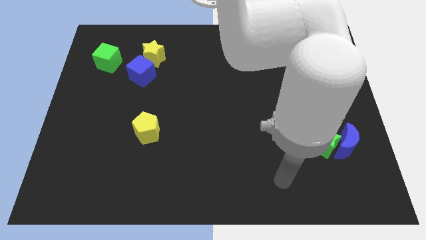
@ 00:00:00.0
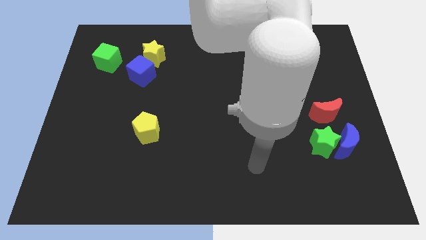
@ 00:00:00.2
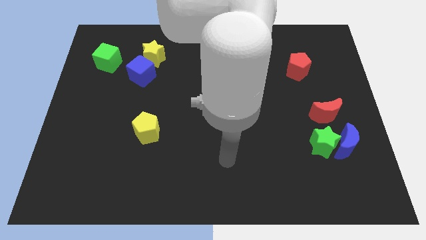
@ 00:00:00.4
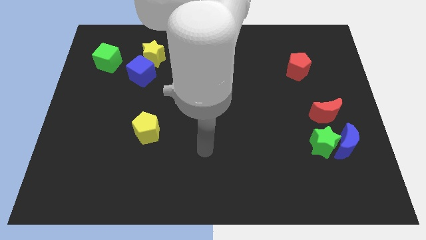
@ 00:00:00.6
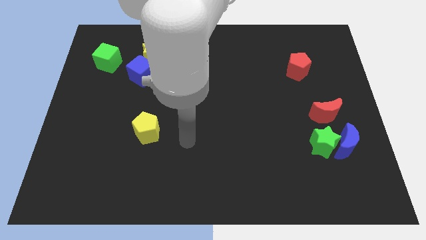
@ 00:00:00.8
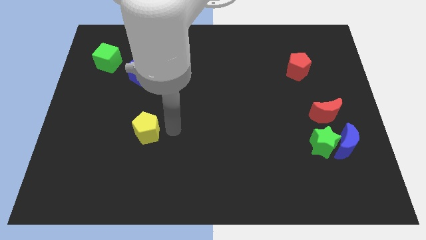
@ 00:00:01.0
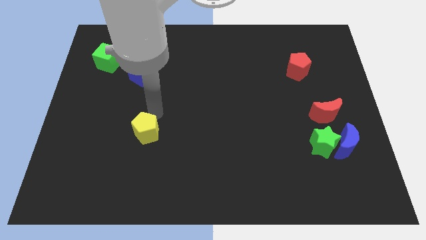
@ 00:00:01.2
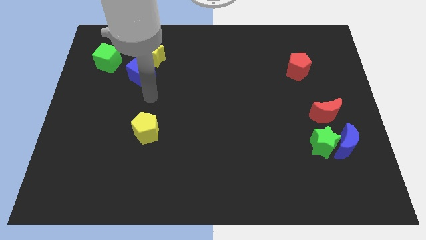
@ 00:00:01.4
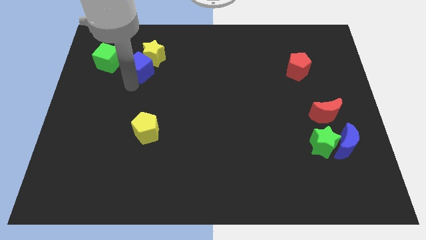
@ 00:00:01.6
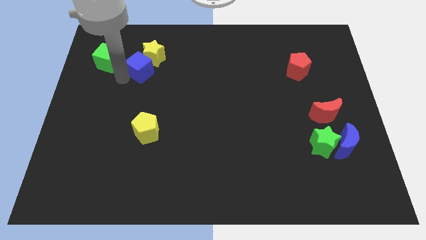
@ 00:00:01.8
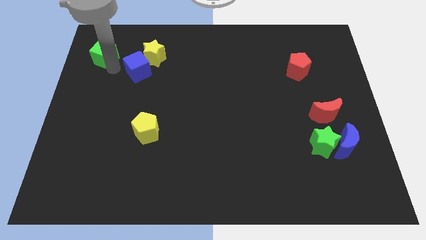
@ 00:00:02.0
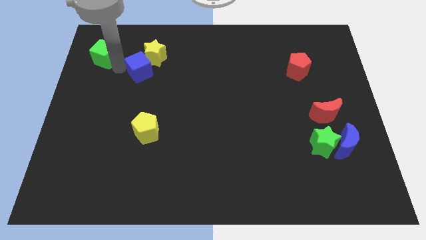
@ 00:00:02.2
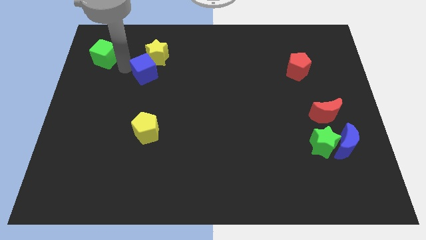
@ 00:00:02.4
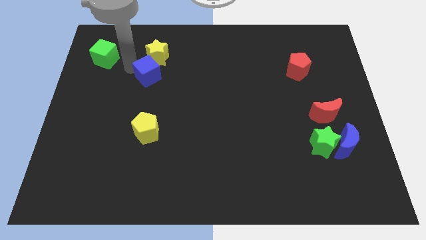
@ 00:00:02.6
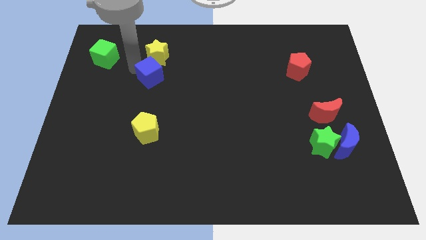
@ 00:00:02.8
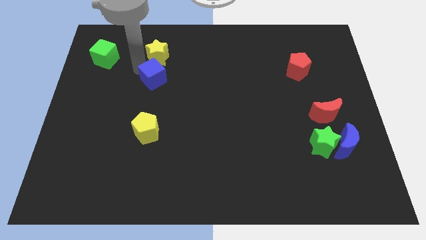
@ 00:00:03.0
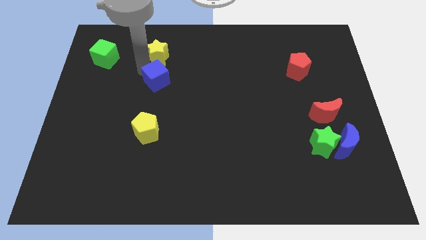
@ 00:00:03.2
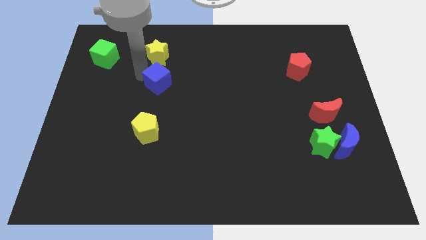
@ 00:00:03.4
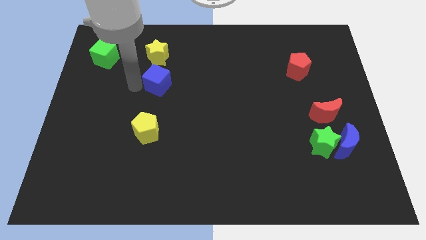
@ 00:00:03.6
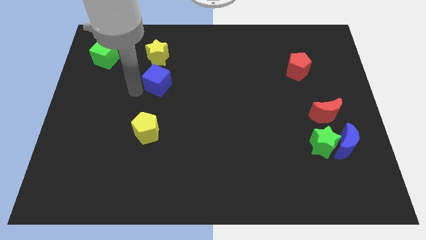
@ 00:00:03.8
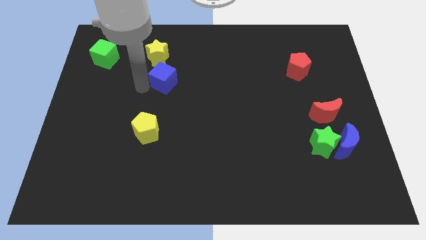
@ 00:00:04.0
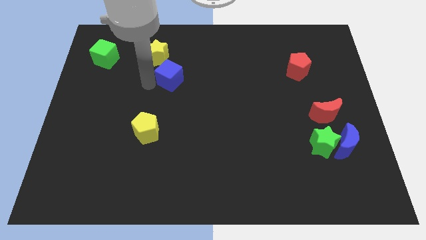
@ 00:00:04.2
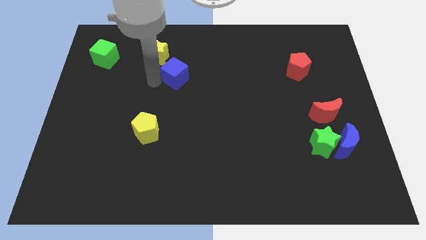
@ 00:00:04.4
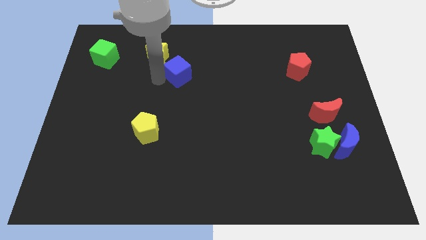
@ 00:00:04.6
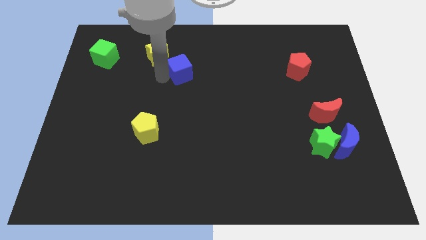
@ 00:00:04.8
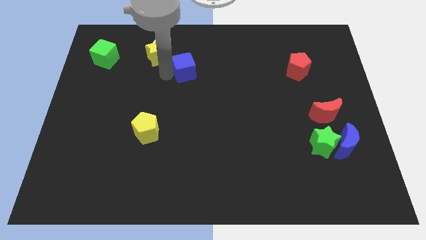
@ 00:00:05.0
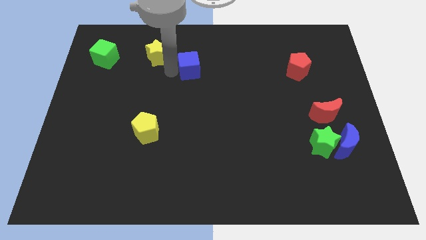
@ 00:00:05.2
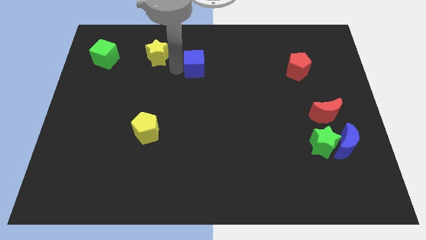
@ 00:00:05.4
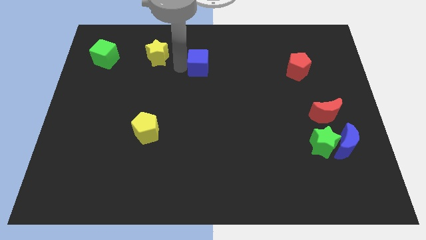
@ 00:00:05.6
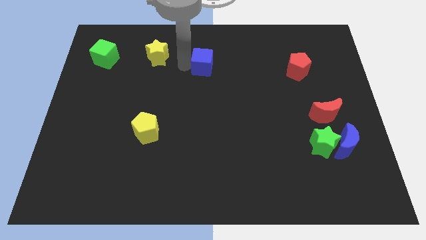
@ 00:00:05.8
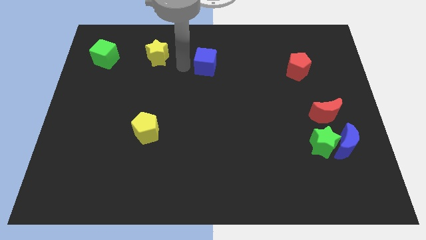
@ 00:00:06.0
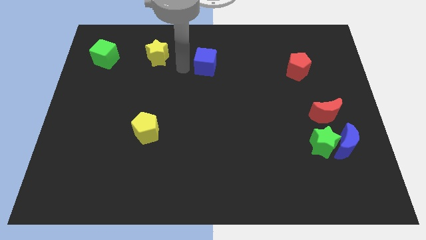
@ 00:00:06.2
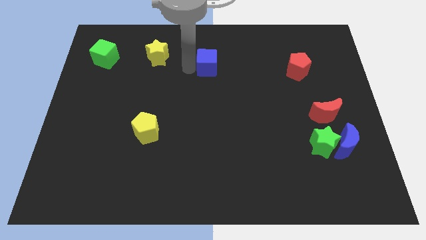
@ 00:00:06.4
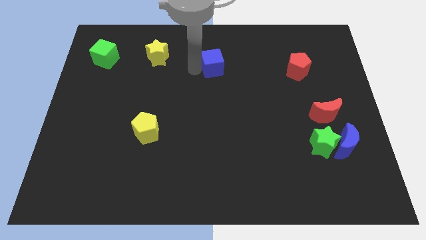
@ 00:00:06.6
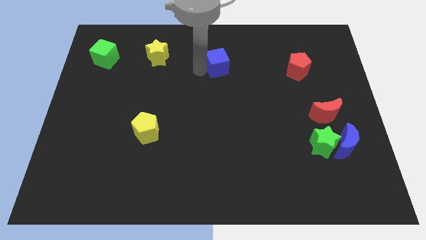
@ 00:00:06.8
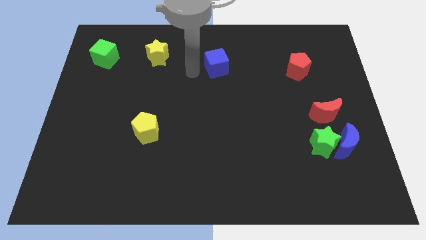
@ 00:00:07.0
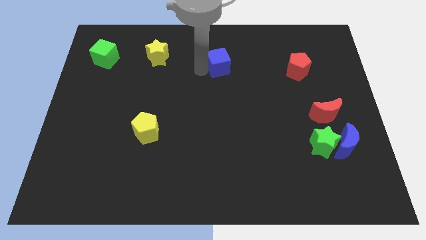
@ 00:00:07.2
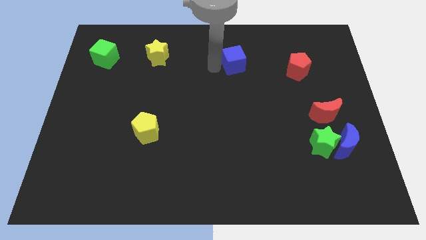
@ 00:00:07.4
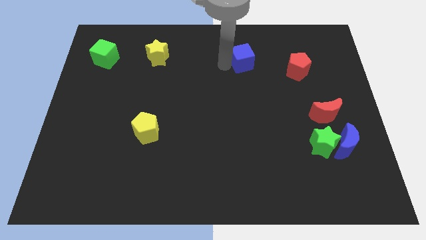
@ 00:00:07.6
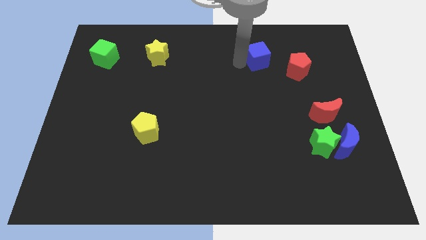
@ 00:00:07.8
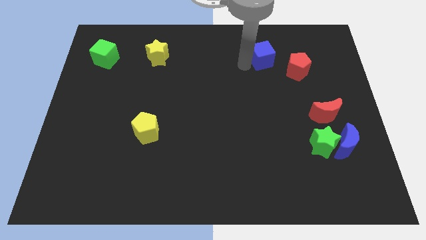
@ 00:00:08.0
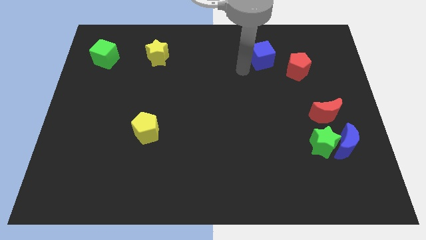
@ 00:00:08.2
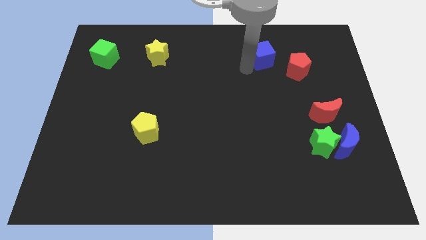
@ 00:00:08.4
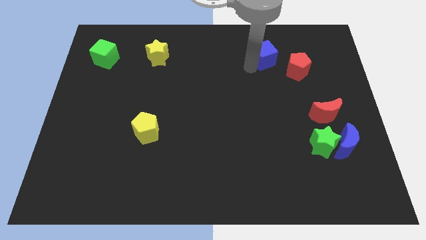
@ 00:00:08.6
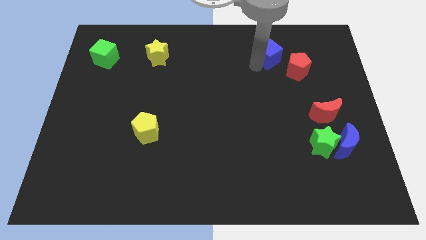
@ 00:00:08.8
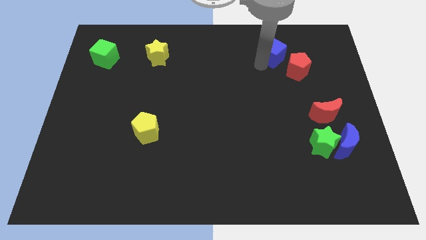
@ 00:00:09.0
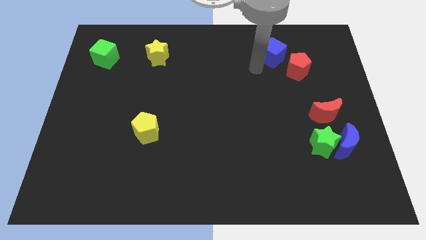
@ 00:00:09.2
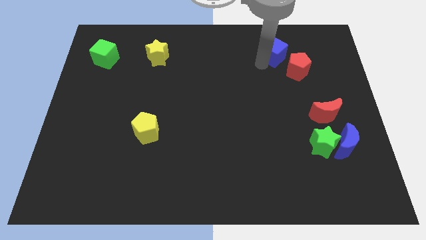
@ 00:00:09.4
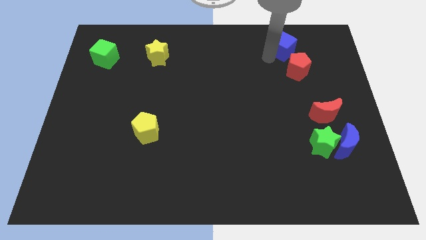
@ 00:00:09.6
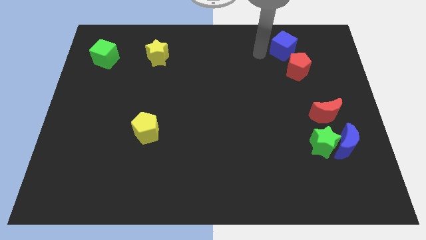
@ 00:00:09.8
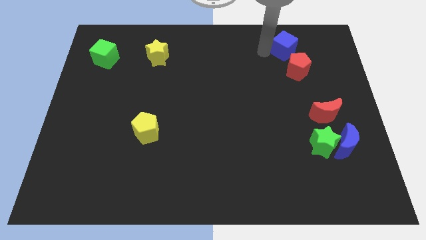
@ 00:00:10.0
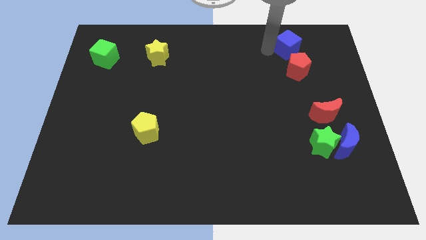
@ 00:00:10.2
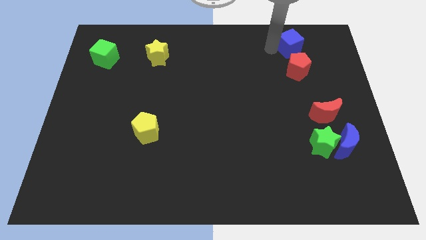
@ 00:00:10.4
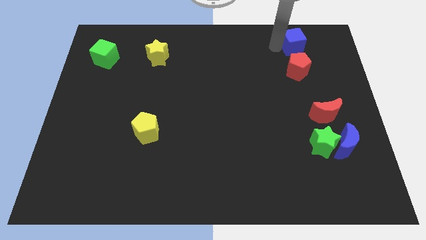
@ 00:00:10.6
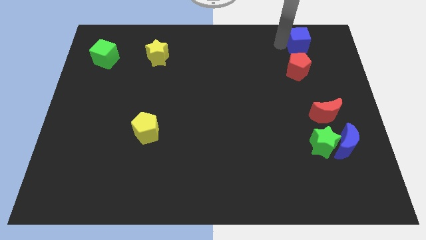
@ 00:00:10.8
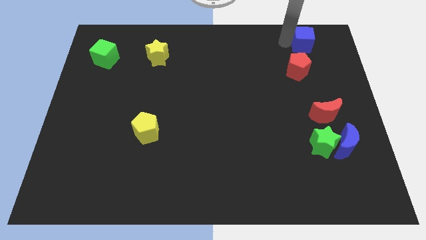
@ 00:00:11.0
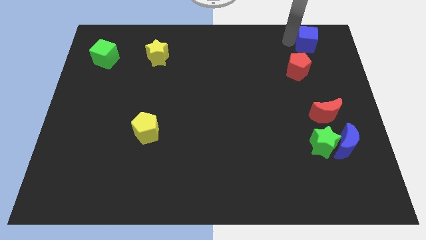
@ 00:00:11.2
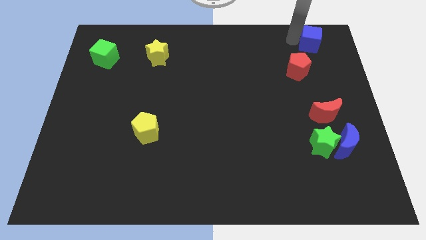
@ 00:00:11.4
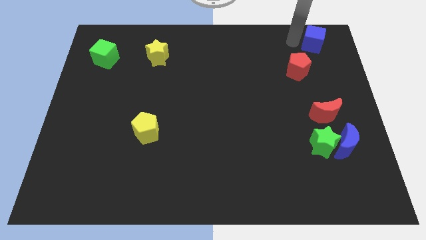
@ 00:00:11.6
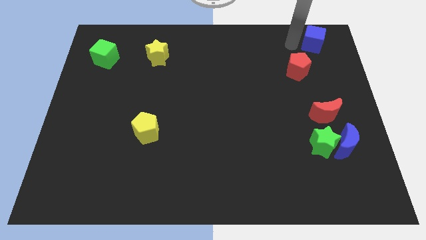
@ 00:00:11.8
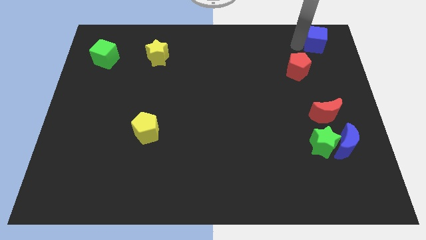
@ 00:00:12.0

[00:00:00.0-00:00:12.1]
slide the blue cube to the top right
